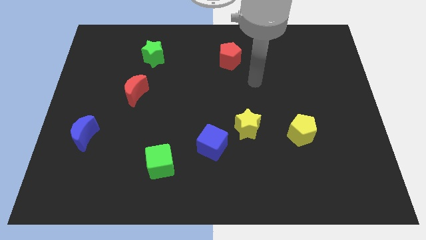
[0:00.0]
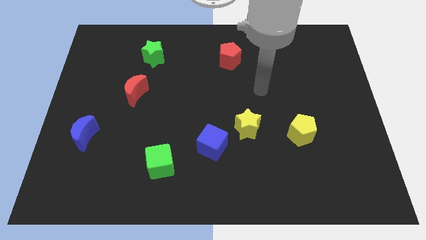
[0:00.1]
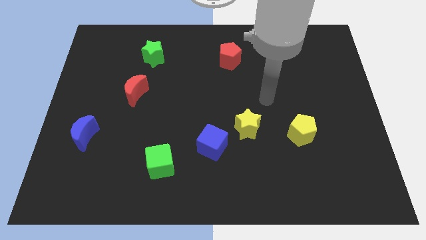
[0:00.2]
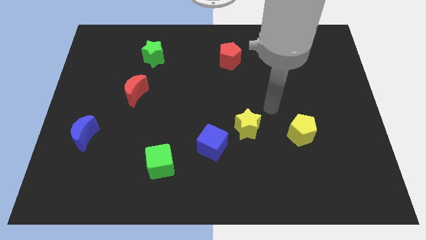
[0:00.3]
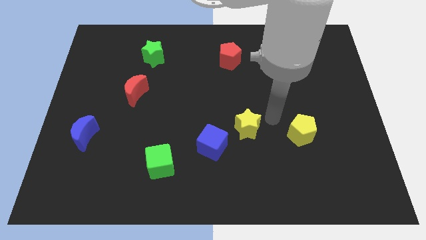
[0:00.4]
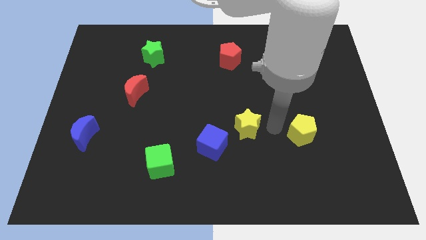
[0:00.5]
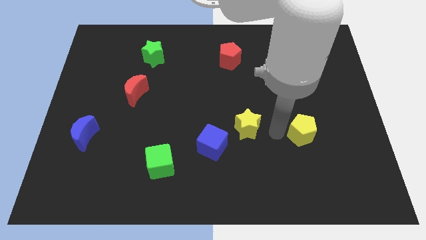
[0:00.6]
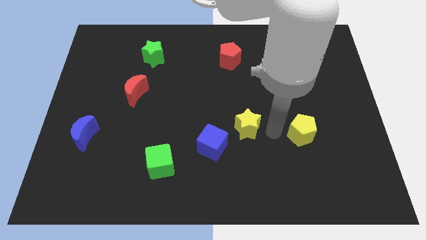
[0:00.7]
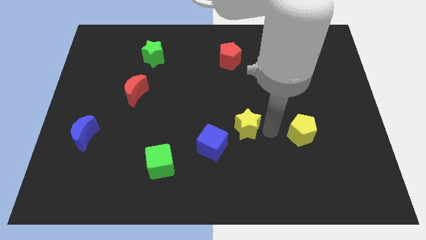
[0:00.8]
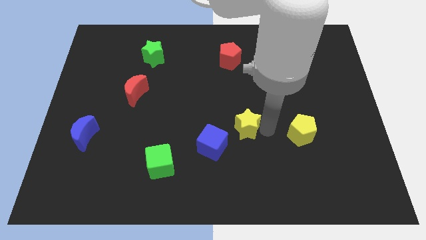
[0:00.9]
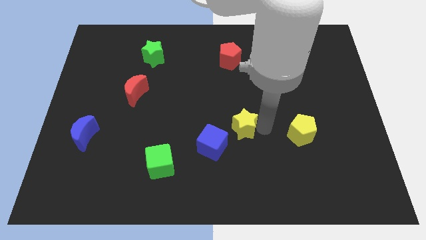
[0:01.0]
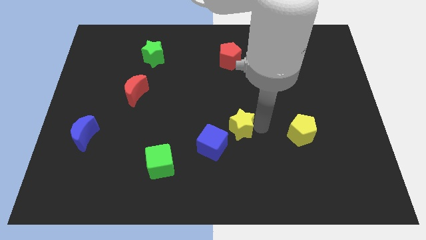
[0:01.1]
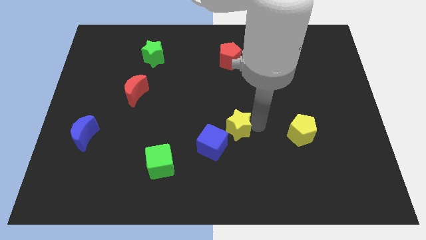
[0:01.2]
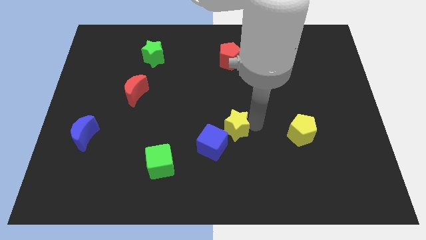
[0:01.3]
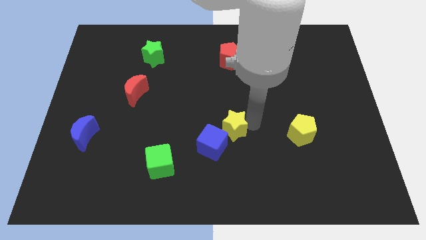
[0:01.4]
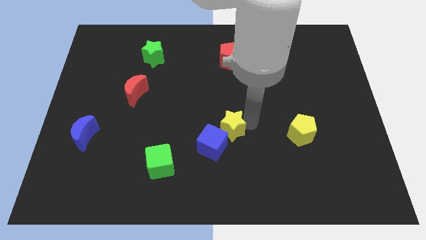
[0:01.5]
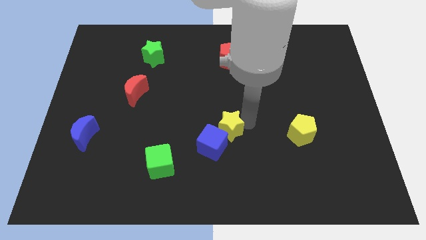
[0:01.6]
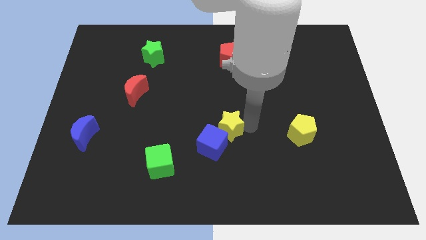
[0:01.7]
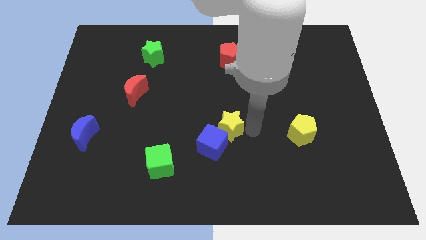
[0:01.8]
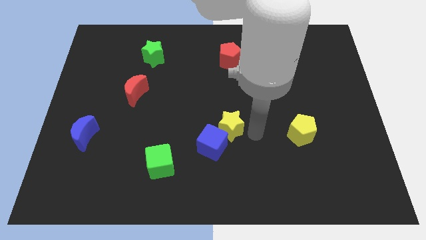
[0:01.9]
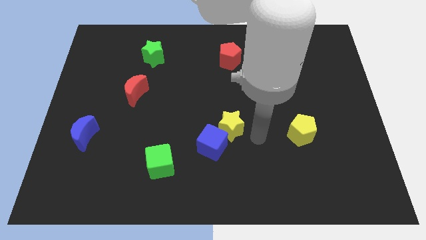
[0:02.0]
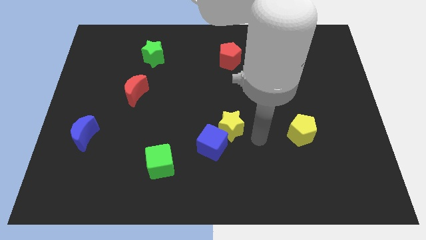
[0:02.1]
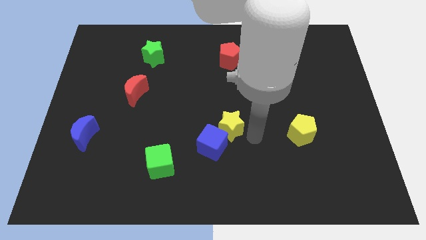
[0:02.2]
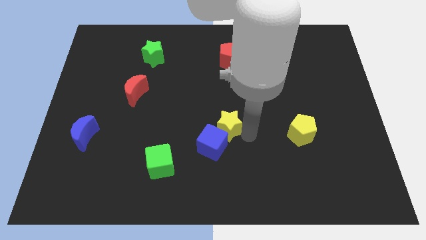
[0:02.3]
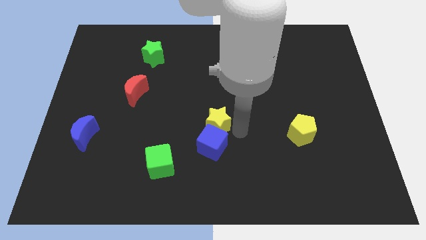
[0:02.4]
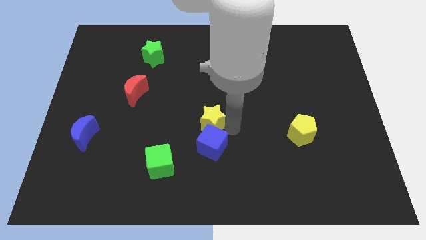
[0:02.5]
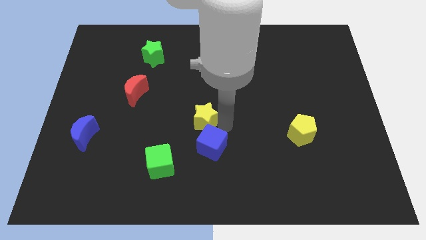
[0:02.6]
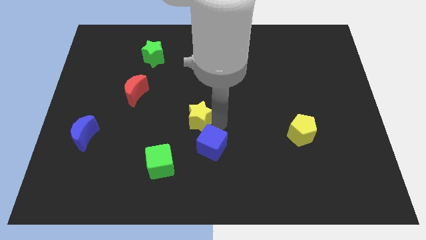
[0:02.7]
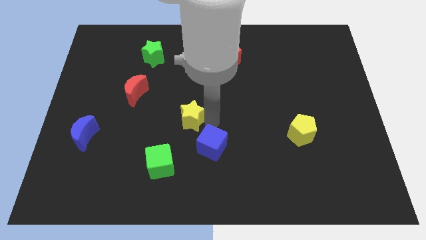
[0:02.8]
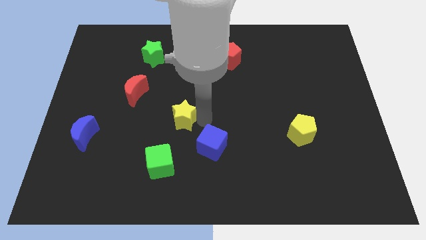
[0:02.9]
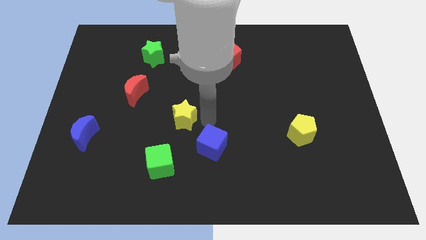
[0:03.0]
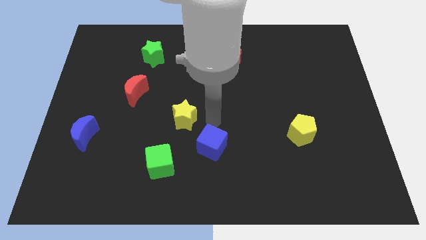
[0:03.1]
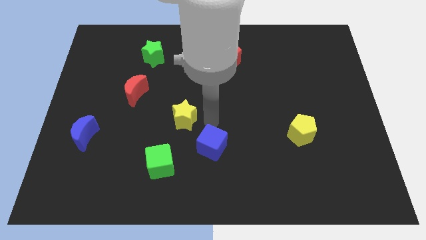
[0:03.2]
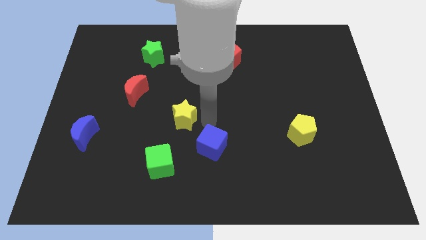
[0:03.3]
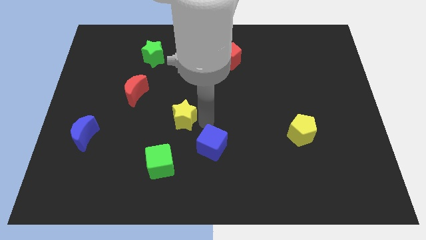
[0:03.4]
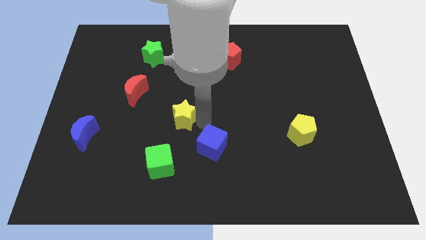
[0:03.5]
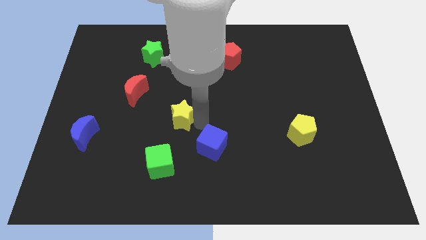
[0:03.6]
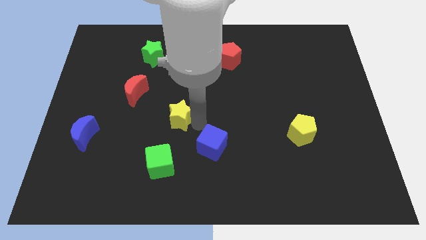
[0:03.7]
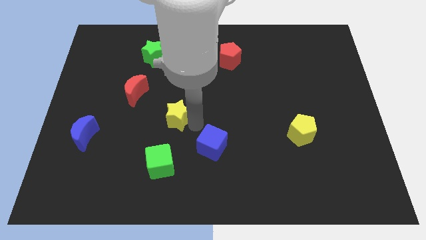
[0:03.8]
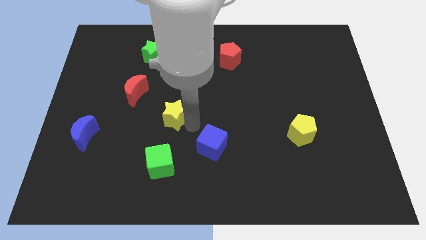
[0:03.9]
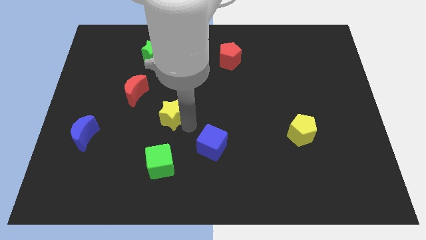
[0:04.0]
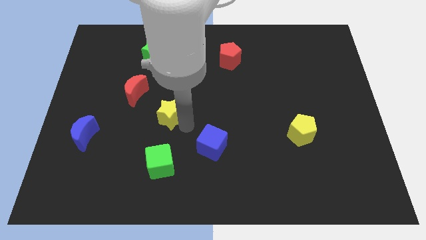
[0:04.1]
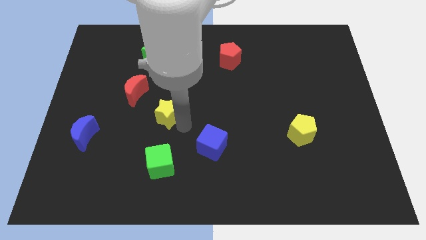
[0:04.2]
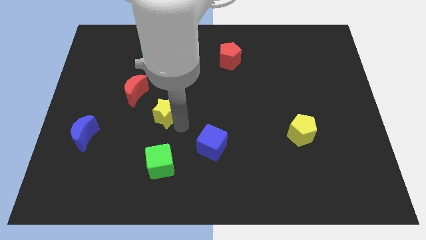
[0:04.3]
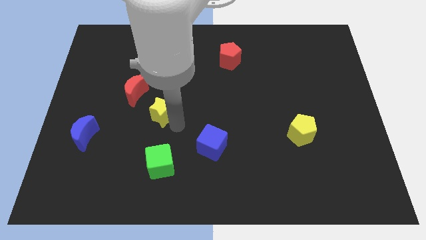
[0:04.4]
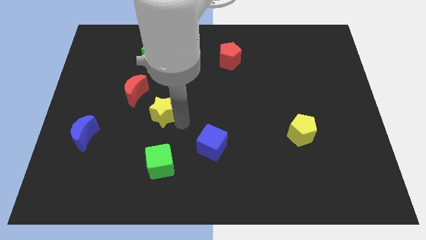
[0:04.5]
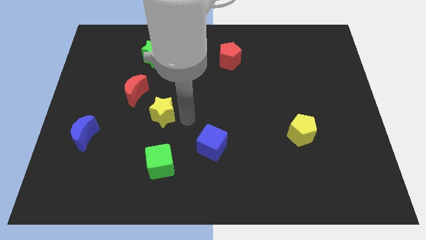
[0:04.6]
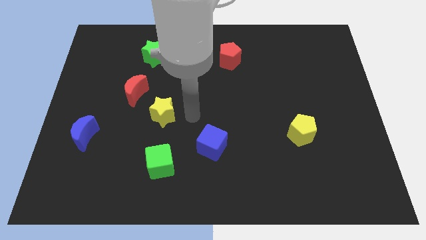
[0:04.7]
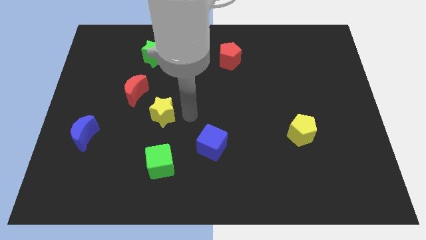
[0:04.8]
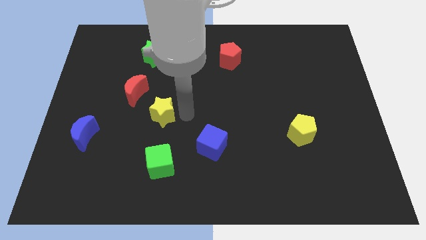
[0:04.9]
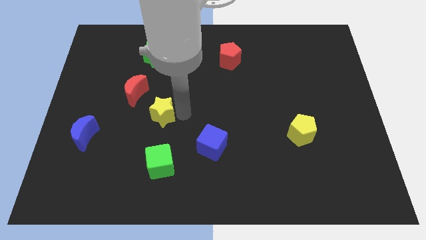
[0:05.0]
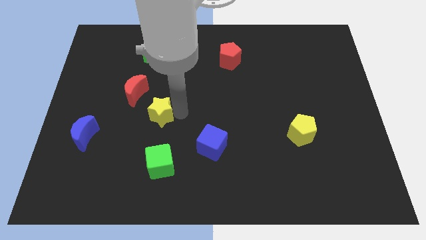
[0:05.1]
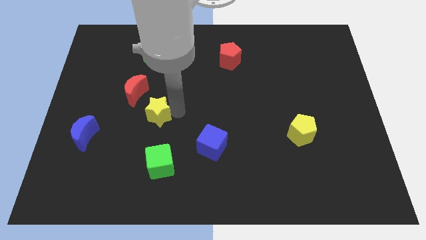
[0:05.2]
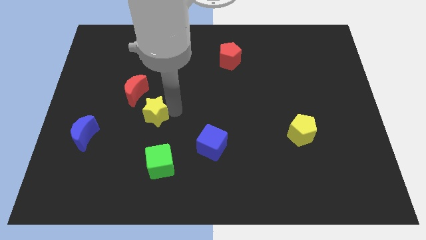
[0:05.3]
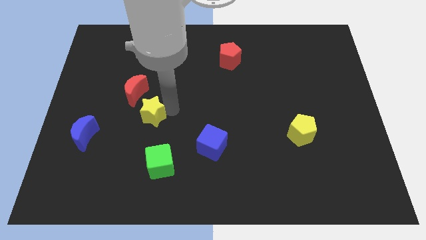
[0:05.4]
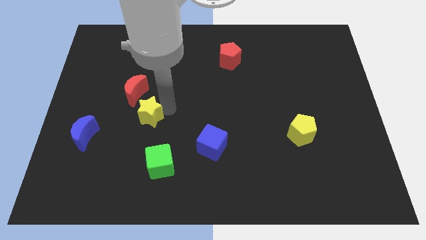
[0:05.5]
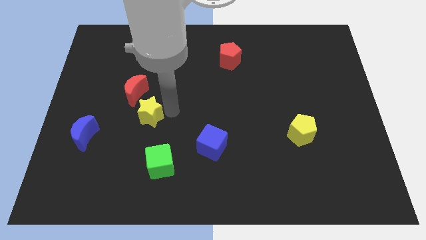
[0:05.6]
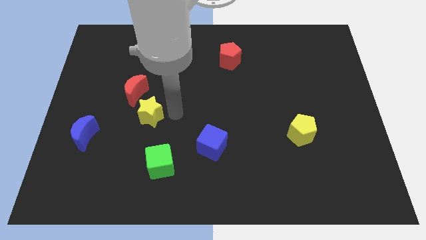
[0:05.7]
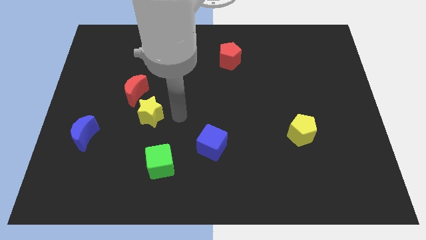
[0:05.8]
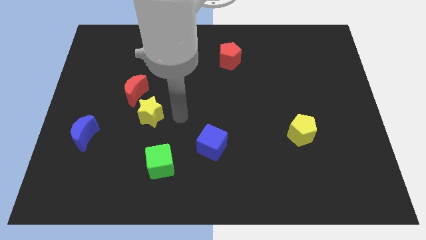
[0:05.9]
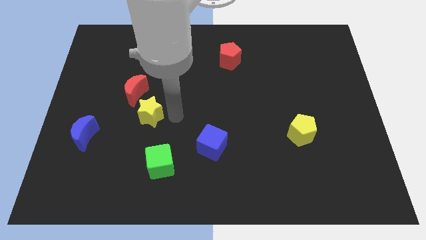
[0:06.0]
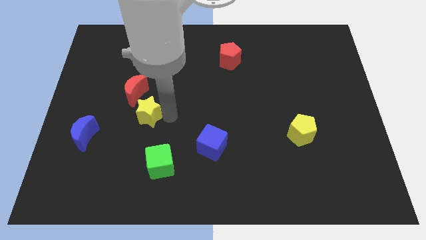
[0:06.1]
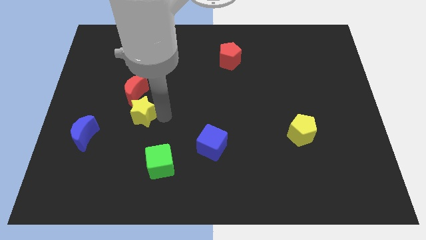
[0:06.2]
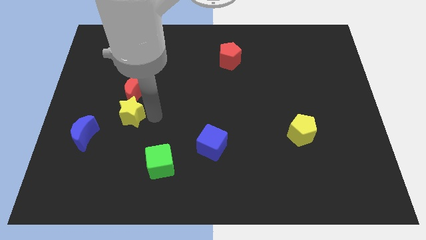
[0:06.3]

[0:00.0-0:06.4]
push the yellow star to the bottom left side of the red moon

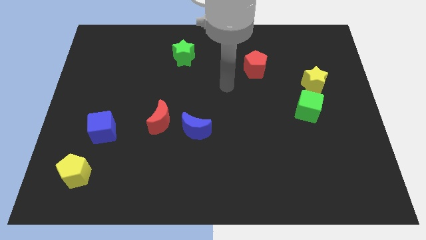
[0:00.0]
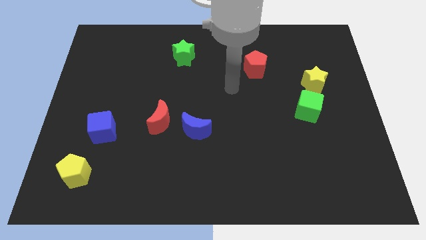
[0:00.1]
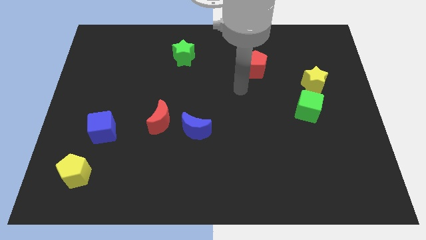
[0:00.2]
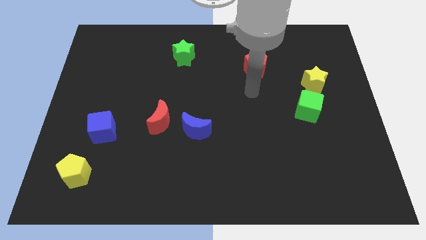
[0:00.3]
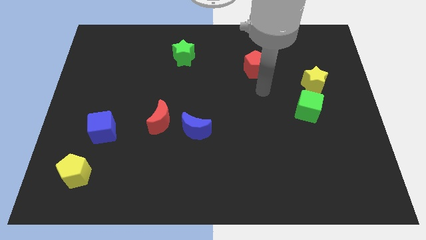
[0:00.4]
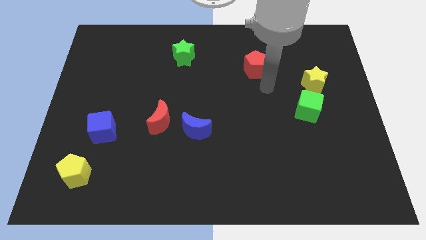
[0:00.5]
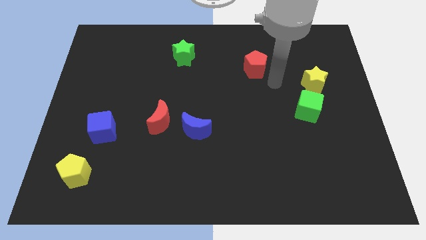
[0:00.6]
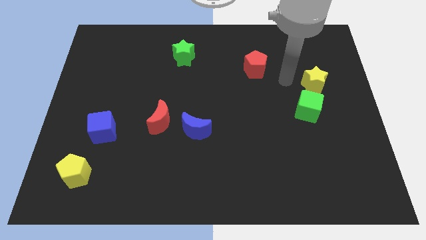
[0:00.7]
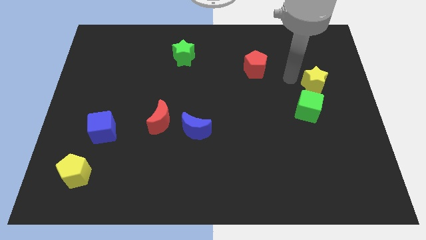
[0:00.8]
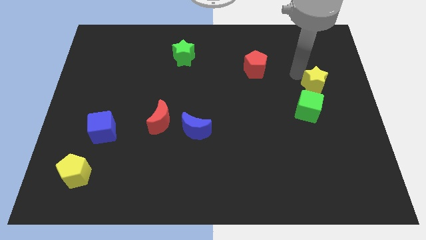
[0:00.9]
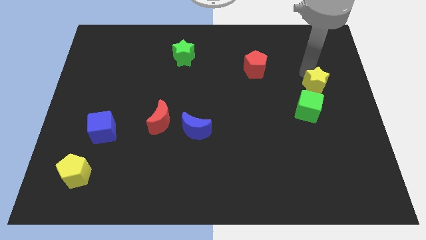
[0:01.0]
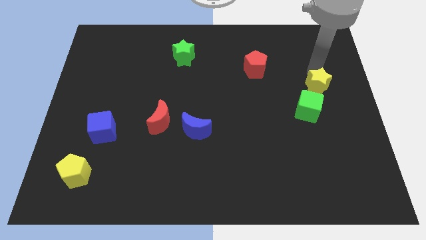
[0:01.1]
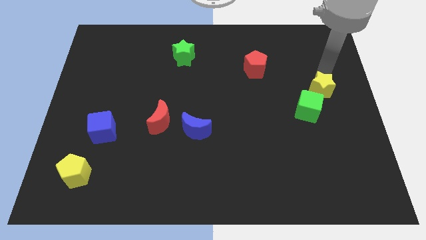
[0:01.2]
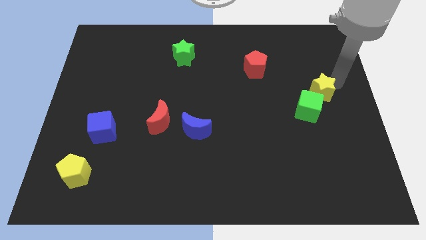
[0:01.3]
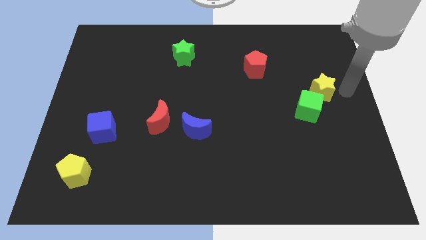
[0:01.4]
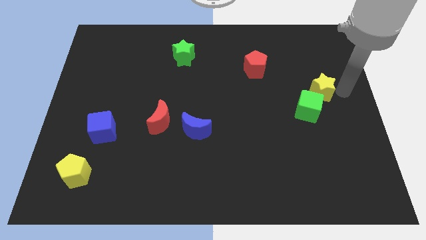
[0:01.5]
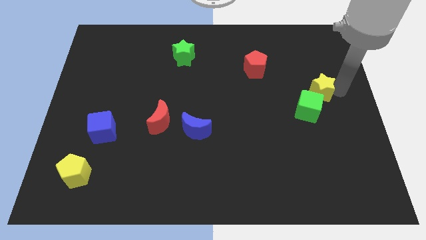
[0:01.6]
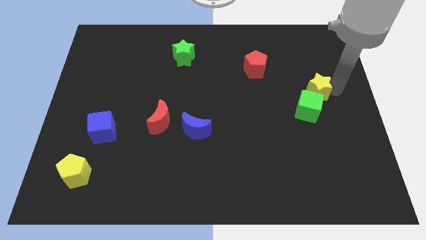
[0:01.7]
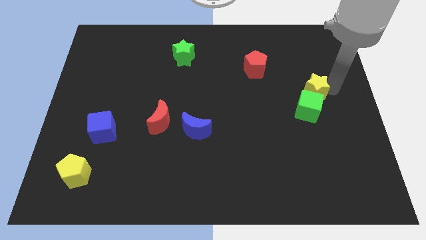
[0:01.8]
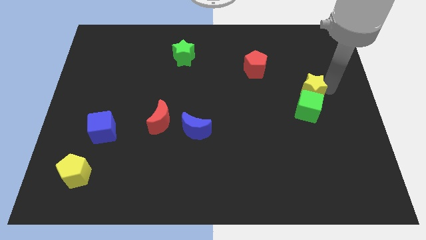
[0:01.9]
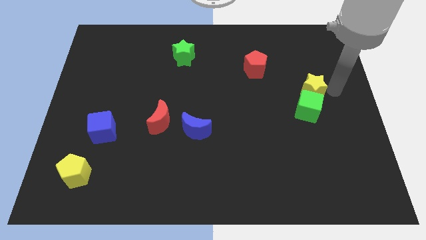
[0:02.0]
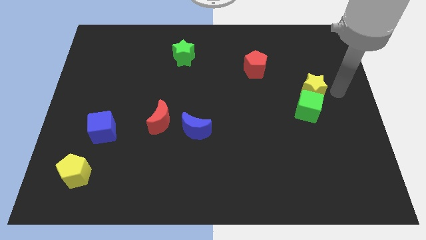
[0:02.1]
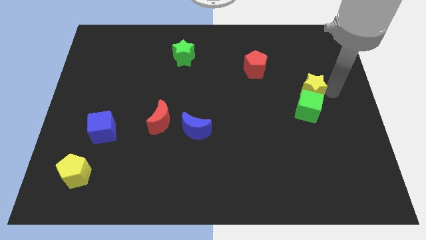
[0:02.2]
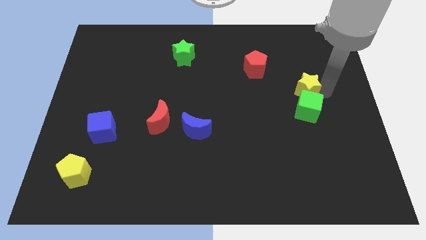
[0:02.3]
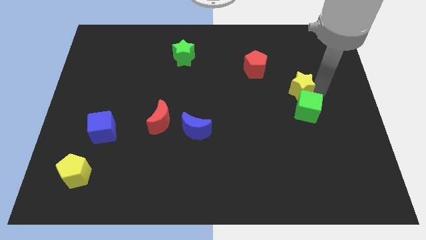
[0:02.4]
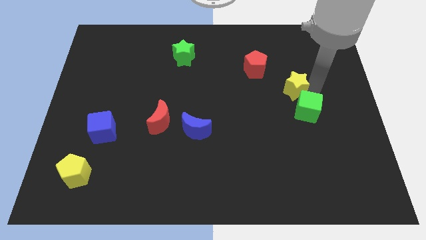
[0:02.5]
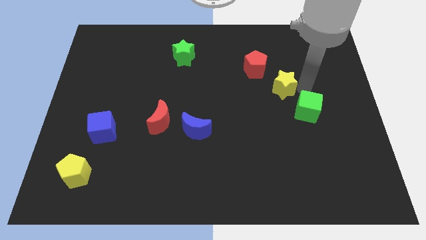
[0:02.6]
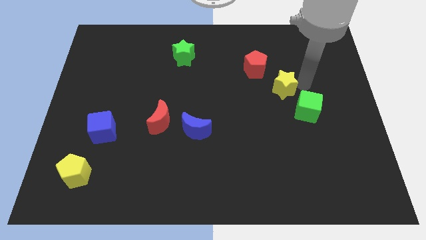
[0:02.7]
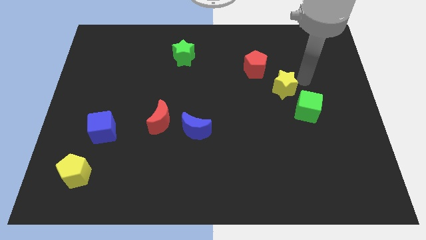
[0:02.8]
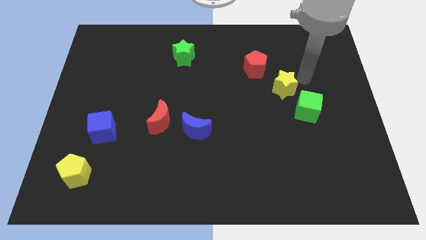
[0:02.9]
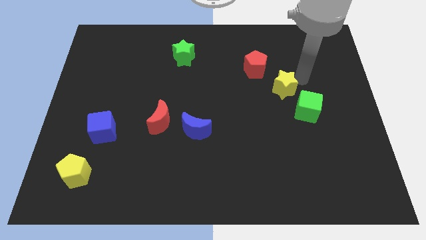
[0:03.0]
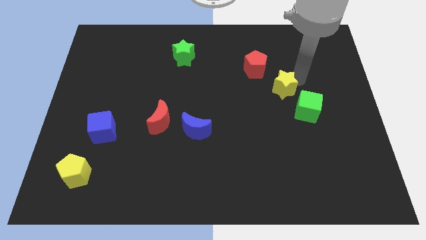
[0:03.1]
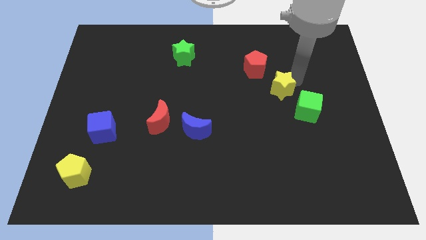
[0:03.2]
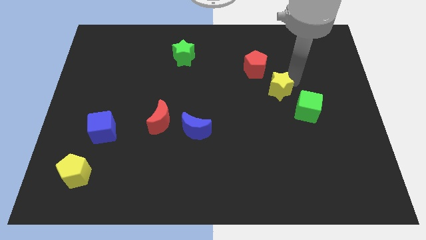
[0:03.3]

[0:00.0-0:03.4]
move the yellow star to the bottom side of the red pentagon
